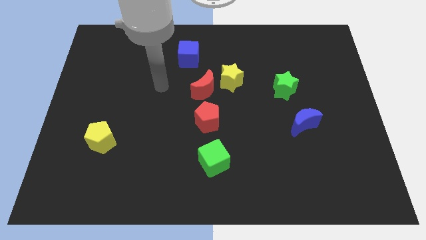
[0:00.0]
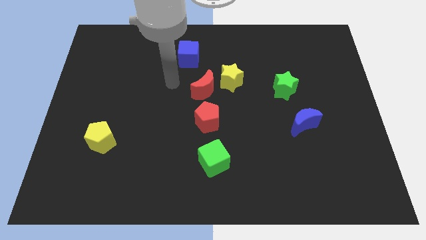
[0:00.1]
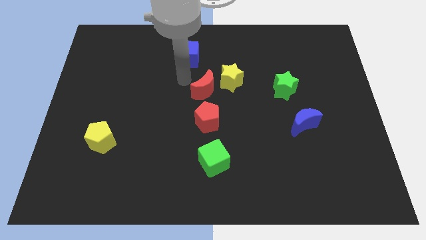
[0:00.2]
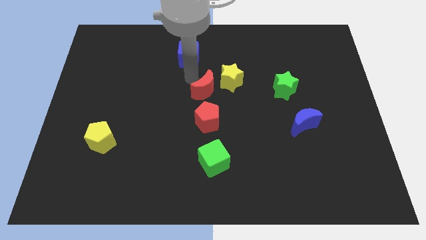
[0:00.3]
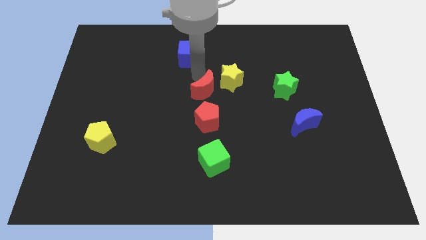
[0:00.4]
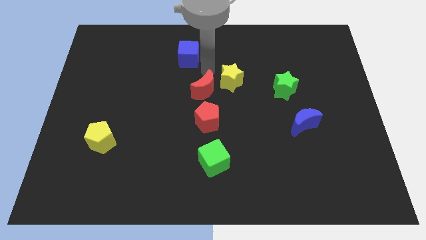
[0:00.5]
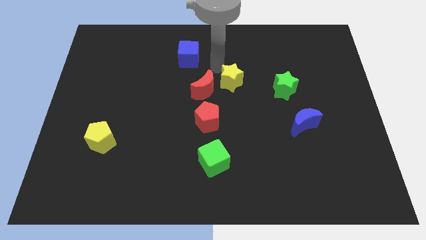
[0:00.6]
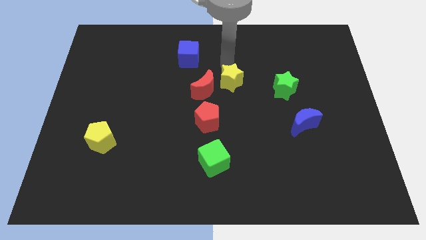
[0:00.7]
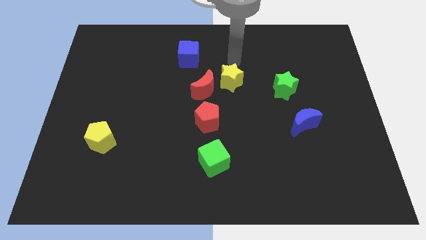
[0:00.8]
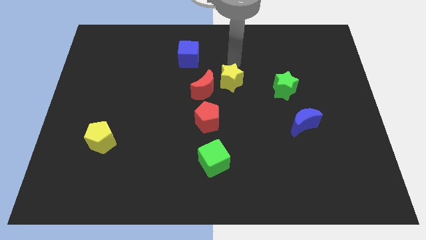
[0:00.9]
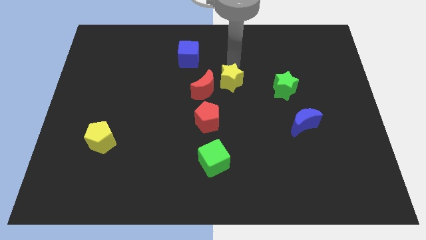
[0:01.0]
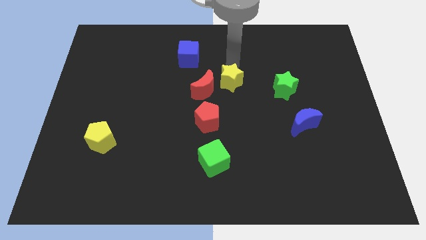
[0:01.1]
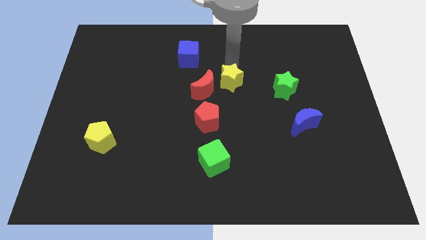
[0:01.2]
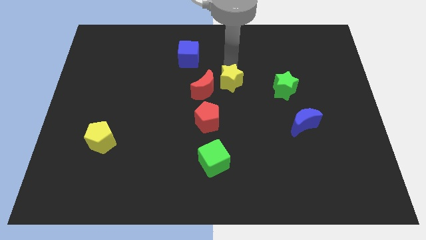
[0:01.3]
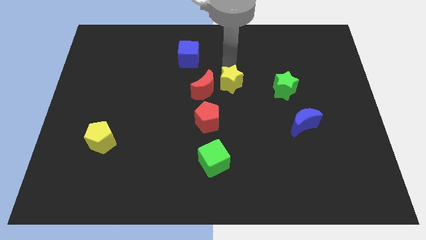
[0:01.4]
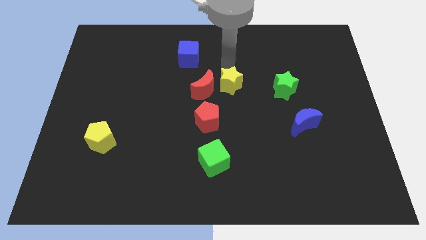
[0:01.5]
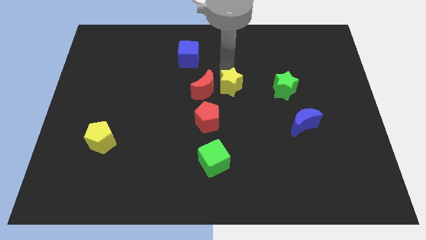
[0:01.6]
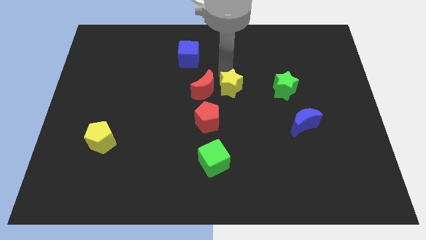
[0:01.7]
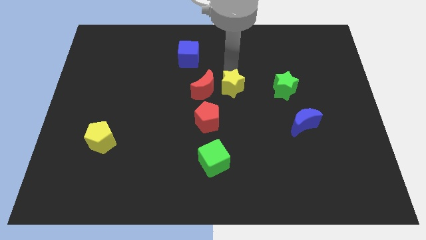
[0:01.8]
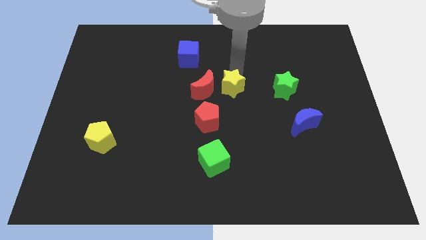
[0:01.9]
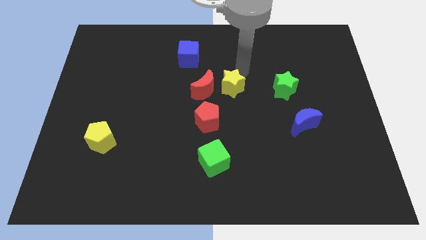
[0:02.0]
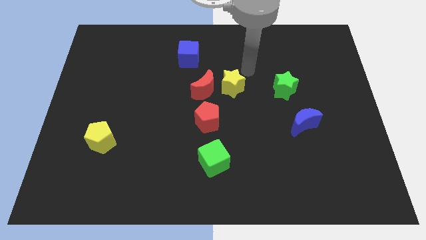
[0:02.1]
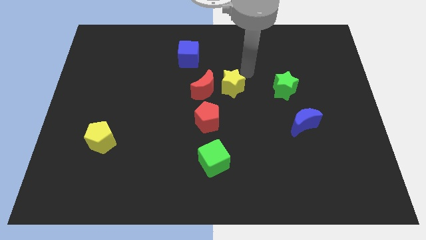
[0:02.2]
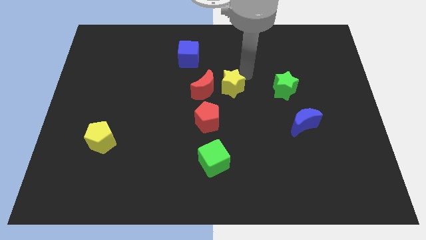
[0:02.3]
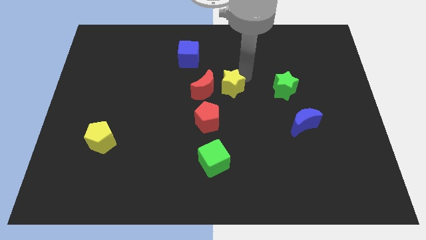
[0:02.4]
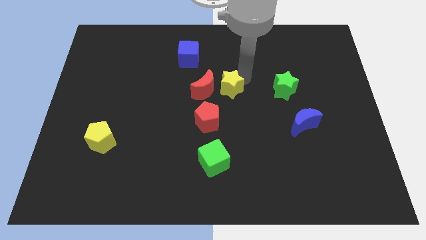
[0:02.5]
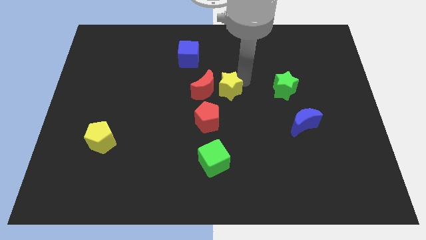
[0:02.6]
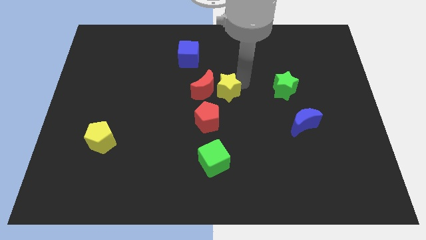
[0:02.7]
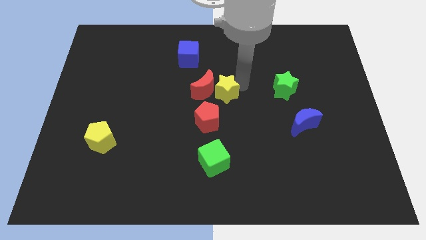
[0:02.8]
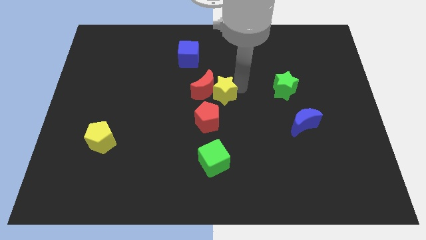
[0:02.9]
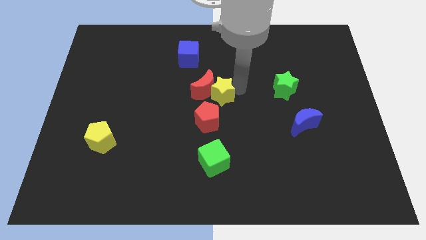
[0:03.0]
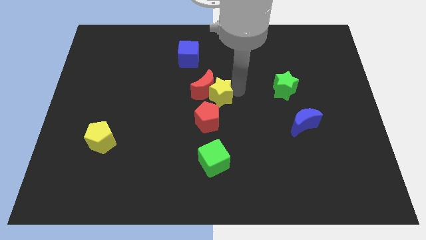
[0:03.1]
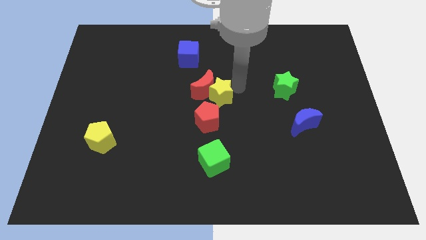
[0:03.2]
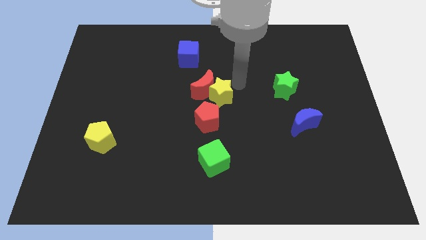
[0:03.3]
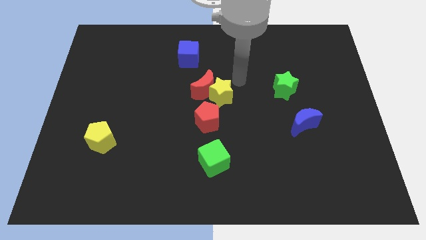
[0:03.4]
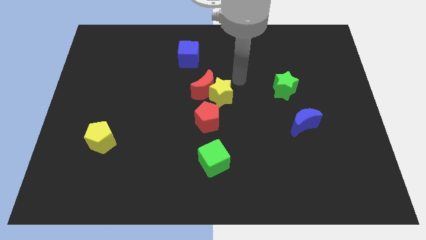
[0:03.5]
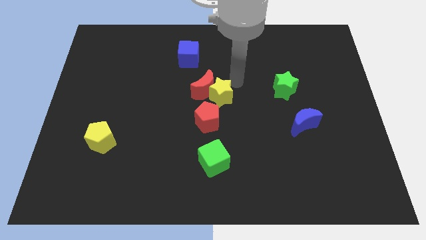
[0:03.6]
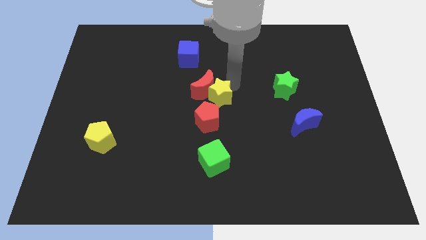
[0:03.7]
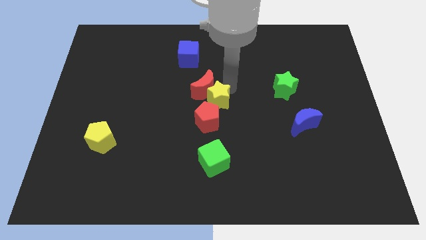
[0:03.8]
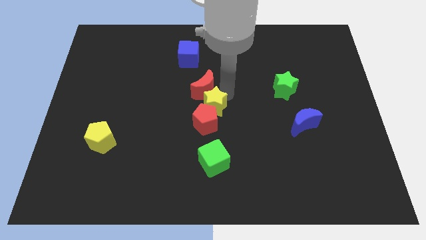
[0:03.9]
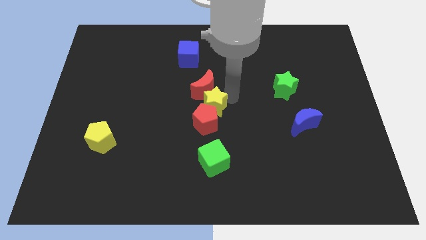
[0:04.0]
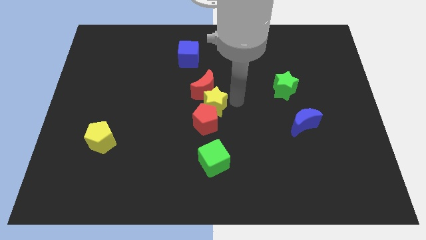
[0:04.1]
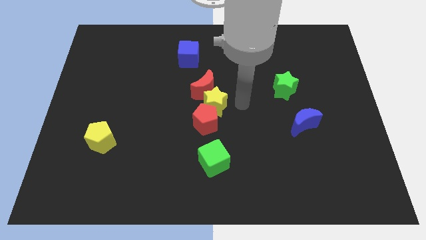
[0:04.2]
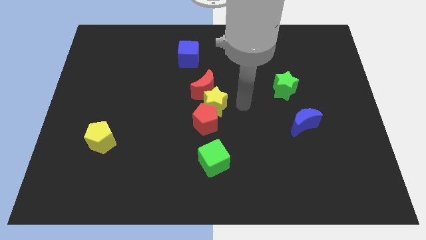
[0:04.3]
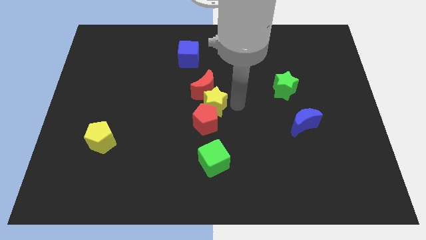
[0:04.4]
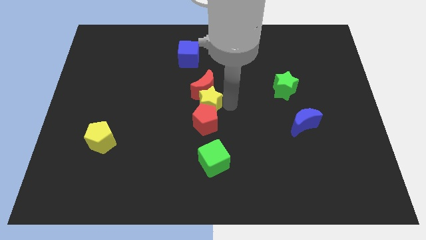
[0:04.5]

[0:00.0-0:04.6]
slide the yellow star to the top left of the red pentagon

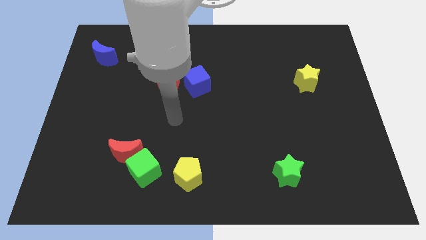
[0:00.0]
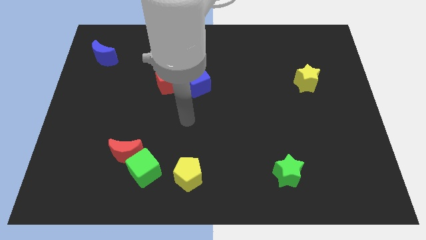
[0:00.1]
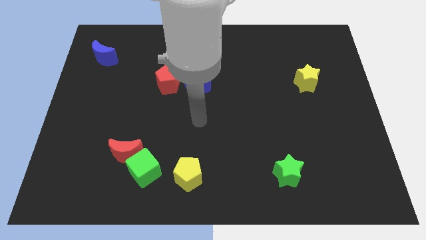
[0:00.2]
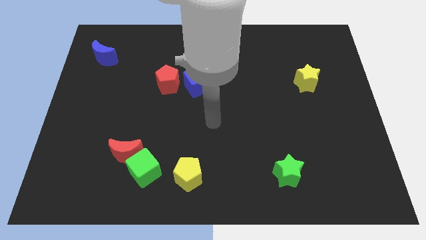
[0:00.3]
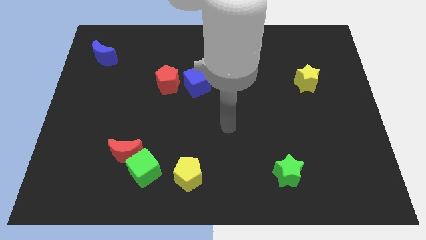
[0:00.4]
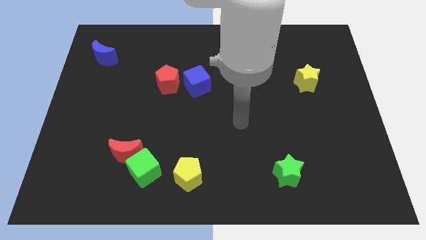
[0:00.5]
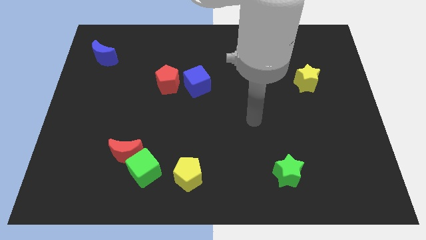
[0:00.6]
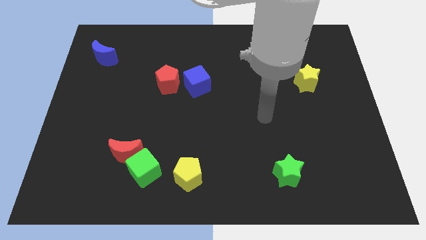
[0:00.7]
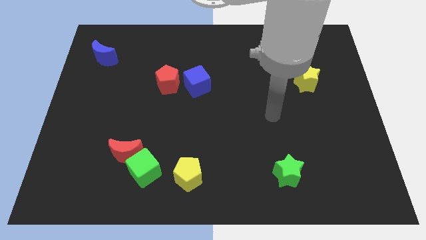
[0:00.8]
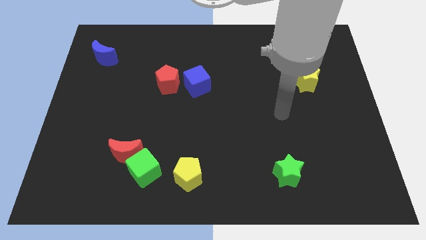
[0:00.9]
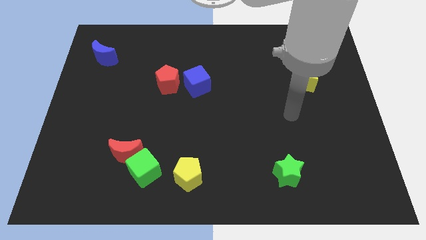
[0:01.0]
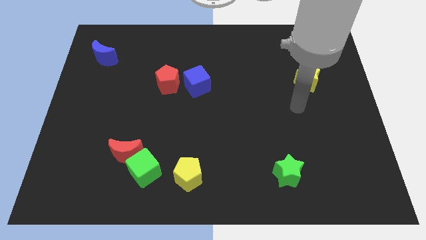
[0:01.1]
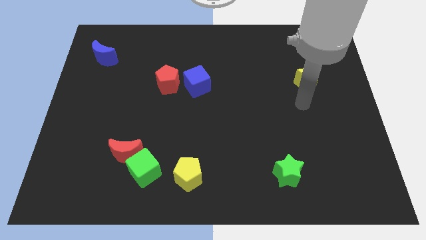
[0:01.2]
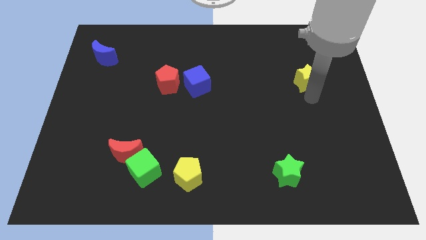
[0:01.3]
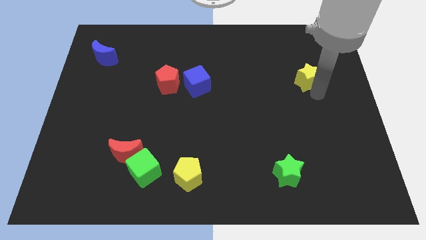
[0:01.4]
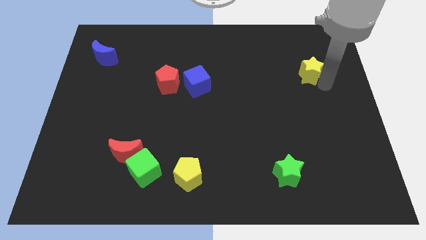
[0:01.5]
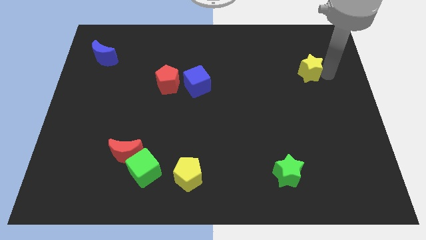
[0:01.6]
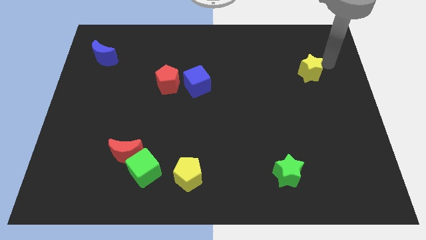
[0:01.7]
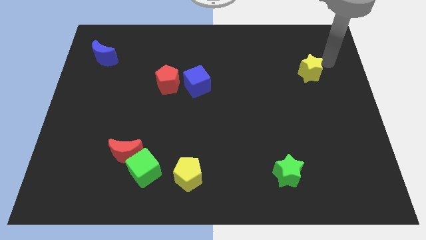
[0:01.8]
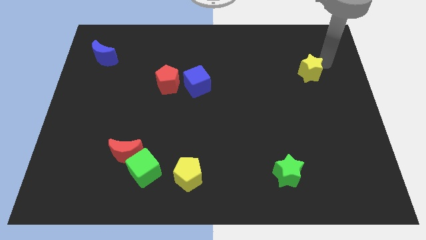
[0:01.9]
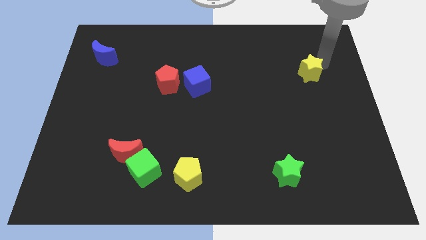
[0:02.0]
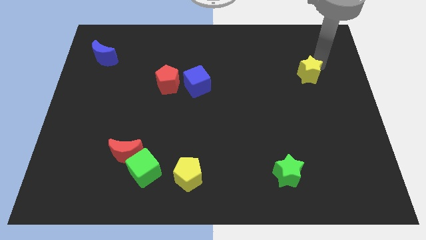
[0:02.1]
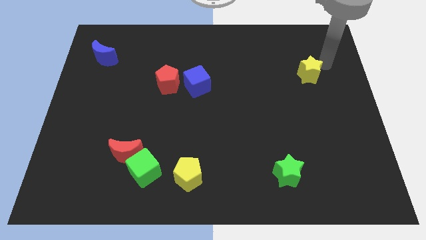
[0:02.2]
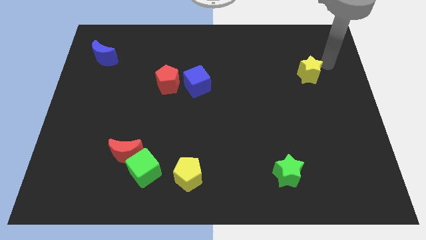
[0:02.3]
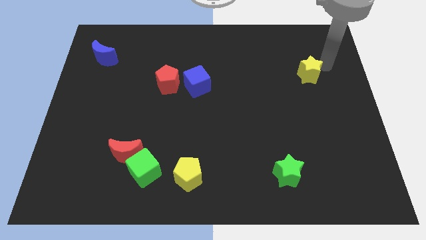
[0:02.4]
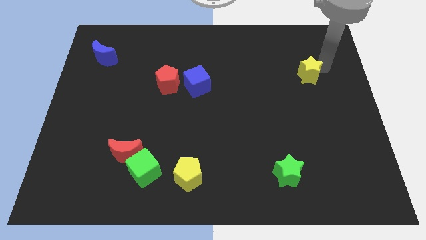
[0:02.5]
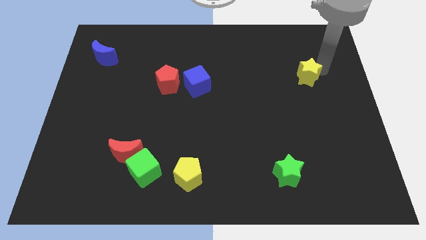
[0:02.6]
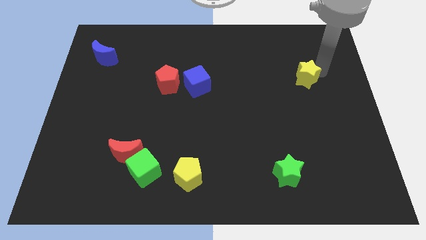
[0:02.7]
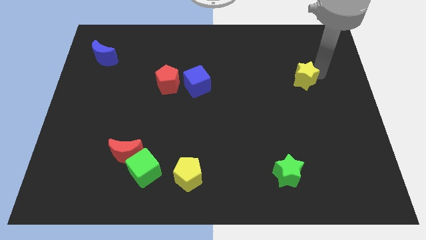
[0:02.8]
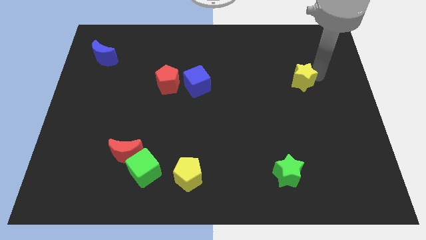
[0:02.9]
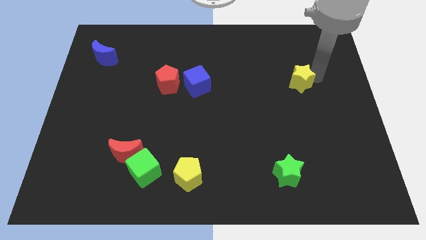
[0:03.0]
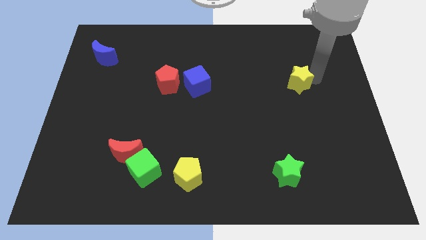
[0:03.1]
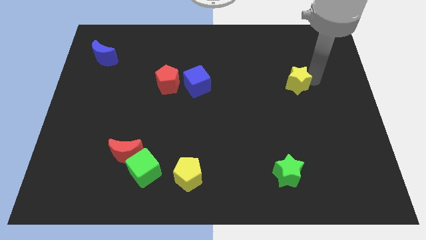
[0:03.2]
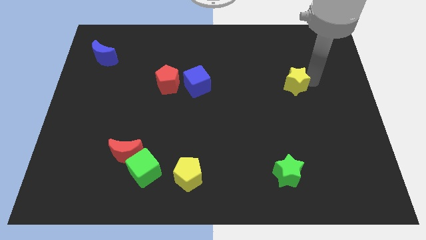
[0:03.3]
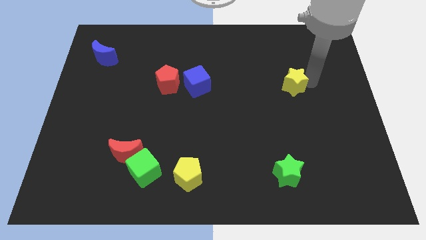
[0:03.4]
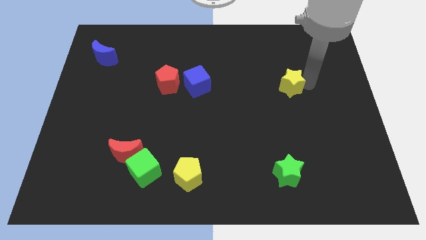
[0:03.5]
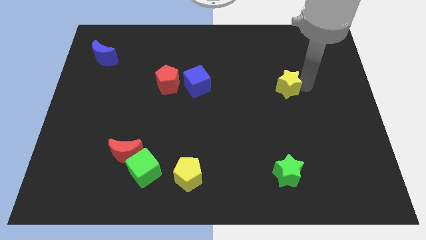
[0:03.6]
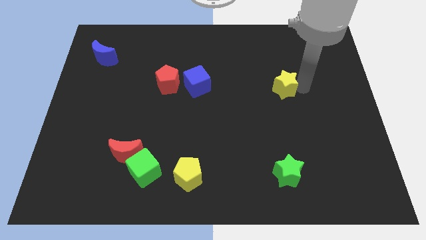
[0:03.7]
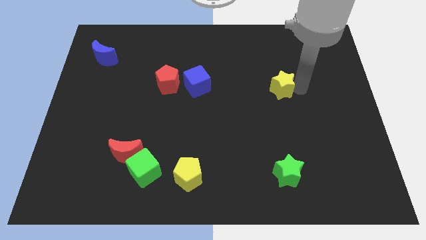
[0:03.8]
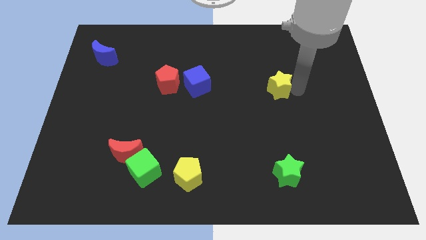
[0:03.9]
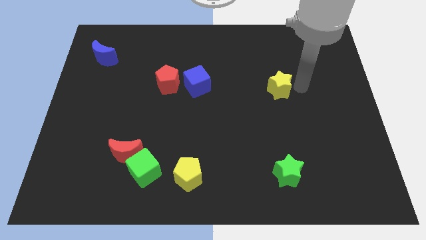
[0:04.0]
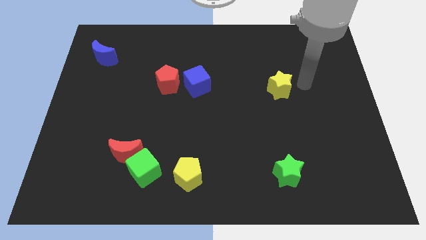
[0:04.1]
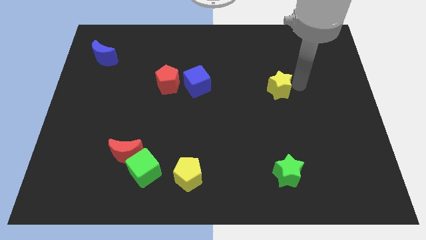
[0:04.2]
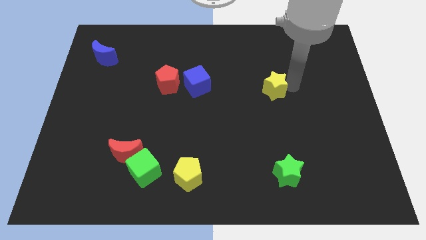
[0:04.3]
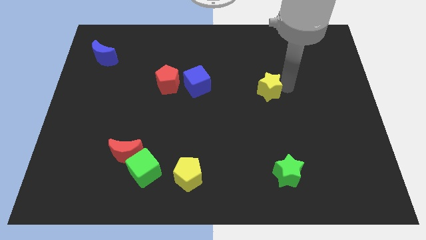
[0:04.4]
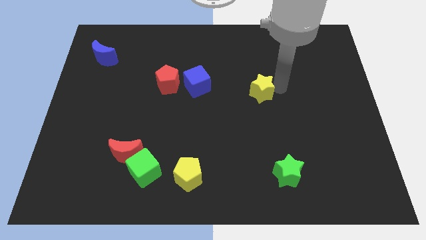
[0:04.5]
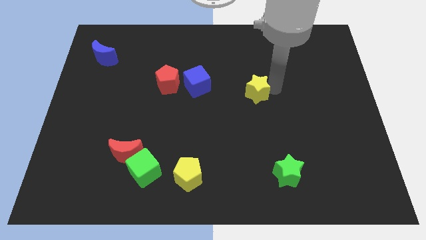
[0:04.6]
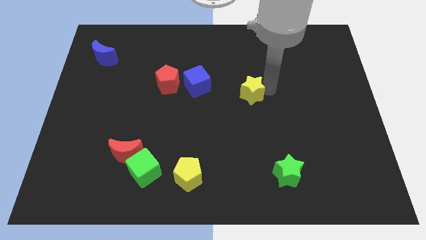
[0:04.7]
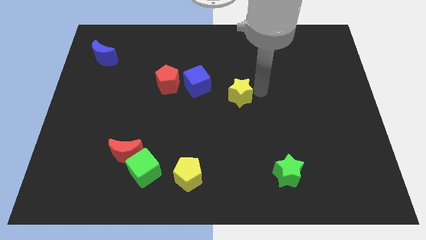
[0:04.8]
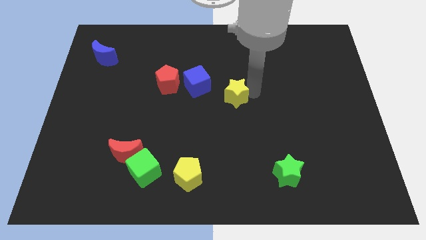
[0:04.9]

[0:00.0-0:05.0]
put the yellow star to the bottom right side of the blue cube
